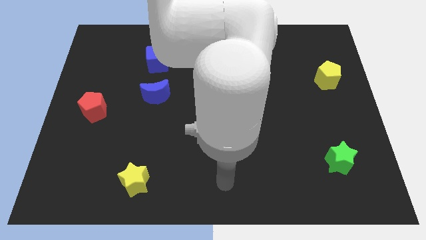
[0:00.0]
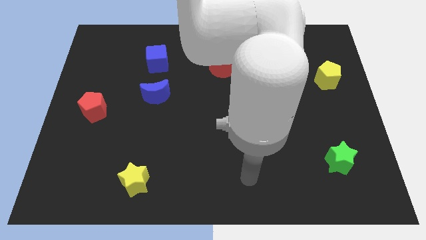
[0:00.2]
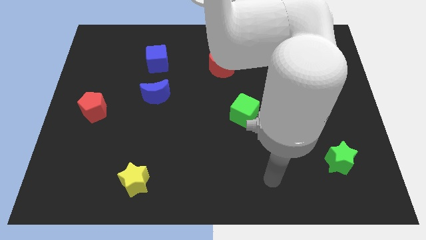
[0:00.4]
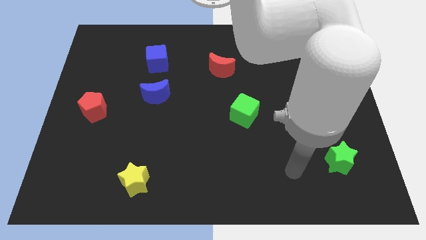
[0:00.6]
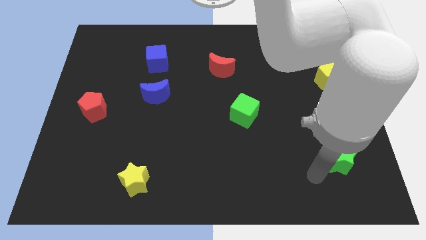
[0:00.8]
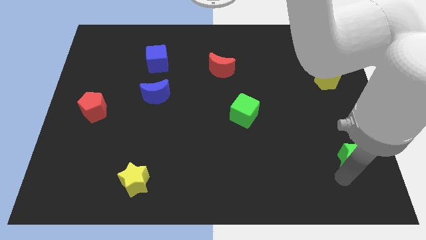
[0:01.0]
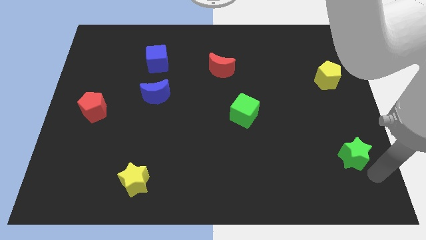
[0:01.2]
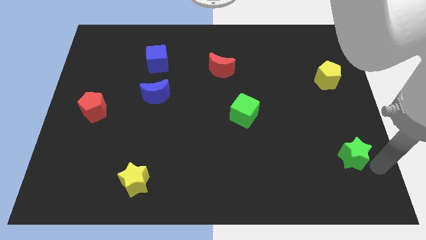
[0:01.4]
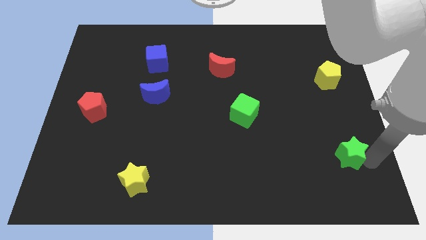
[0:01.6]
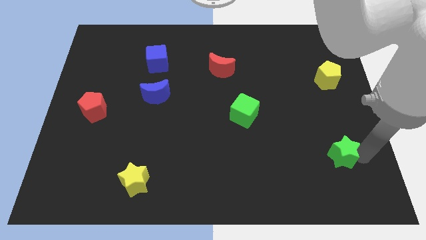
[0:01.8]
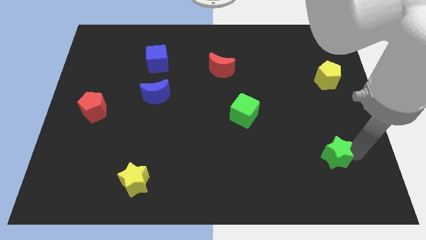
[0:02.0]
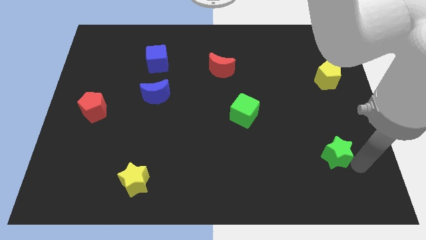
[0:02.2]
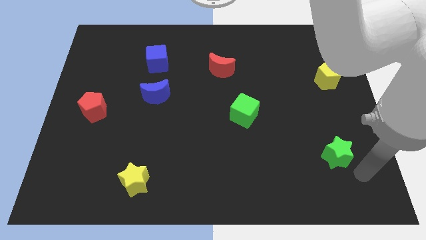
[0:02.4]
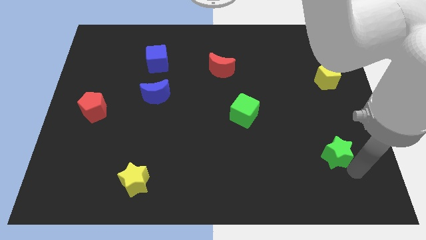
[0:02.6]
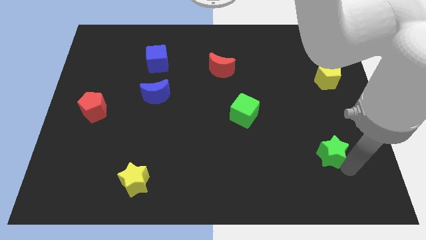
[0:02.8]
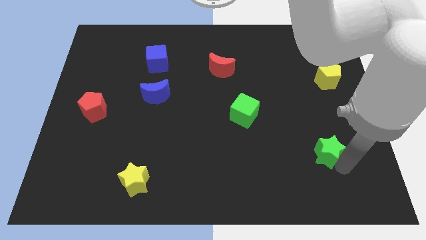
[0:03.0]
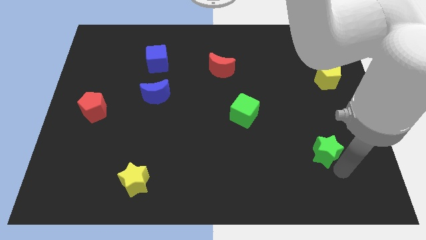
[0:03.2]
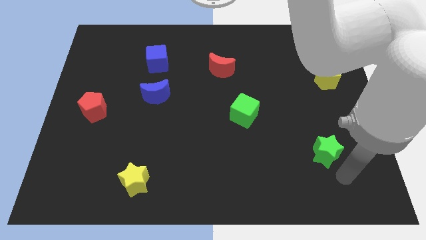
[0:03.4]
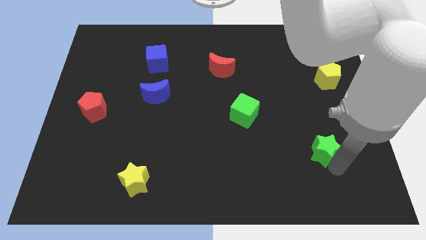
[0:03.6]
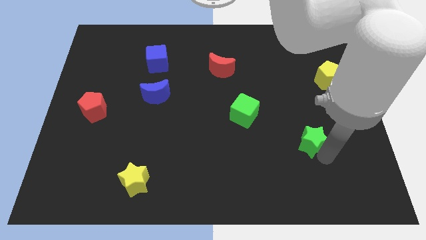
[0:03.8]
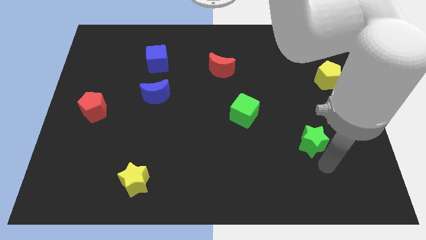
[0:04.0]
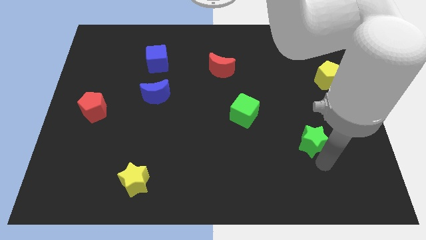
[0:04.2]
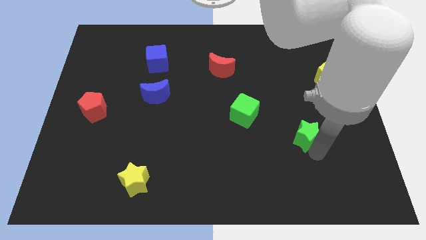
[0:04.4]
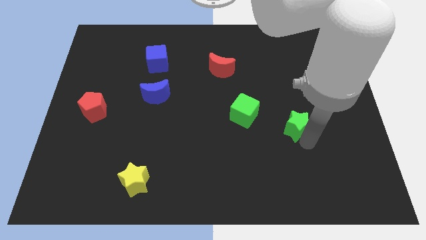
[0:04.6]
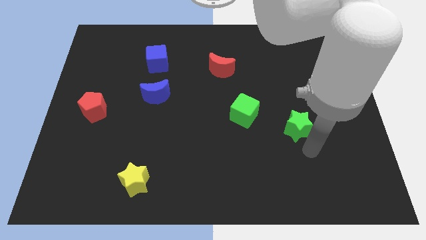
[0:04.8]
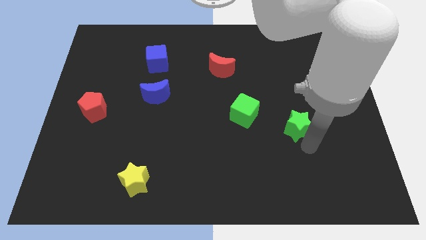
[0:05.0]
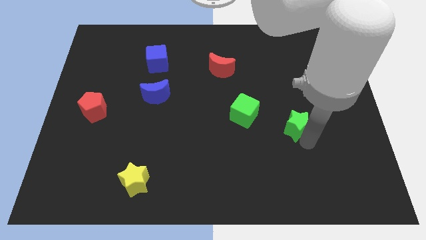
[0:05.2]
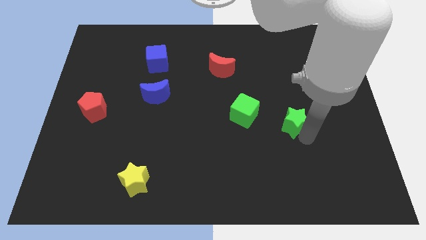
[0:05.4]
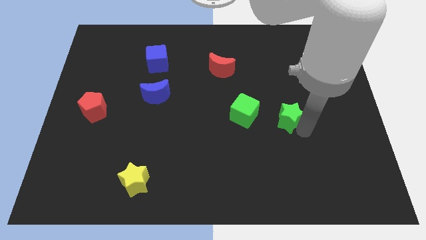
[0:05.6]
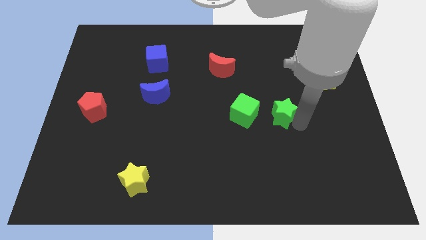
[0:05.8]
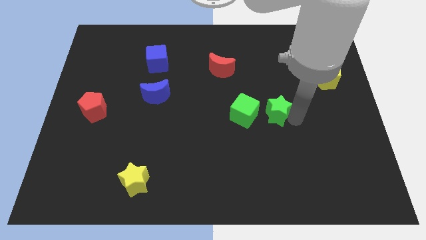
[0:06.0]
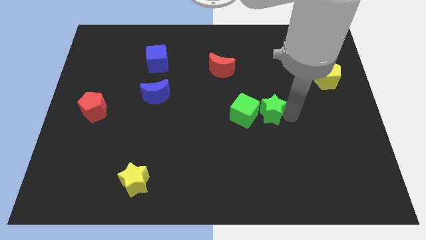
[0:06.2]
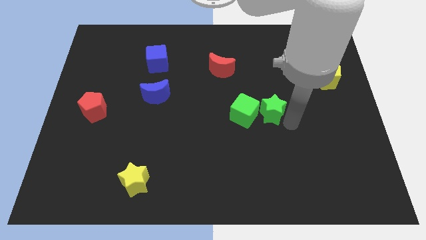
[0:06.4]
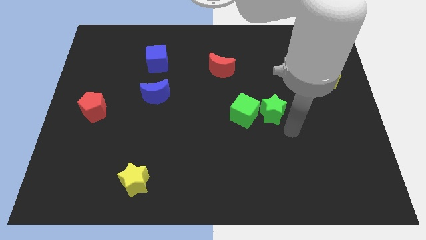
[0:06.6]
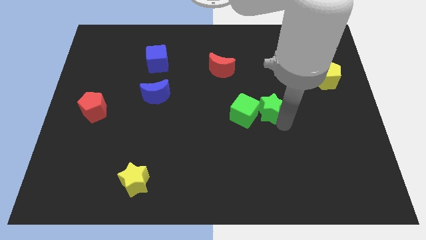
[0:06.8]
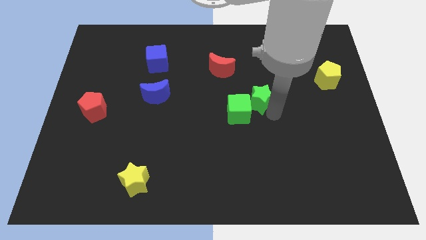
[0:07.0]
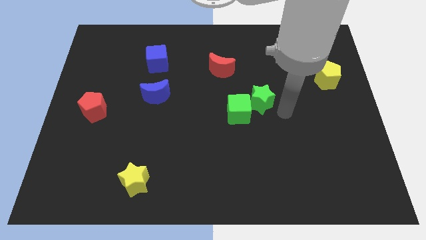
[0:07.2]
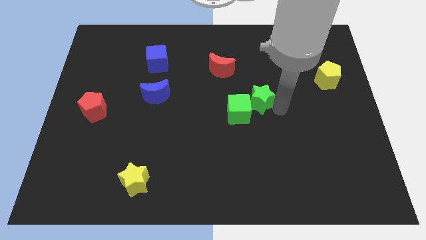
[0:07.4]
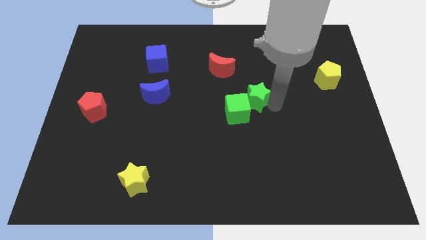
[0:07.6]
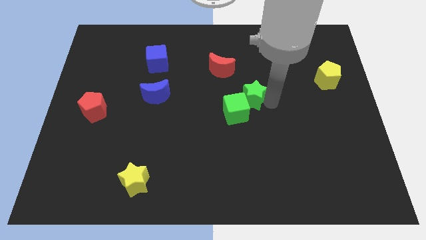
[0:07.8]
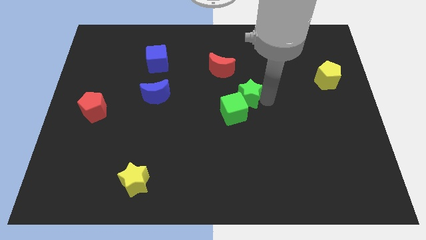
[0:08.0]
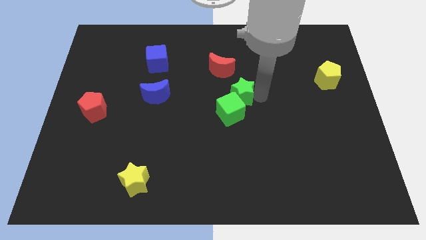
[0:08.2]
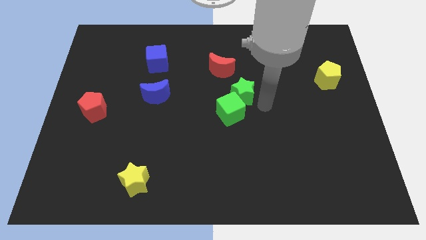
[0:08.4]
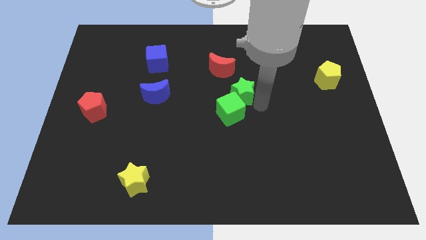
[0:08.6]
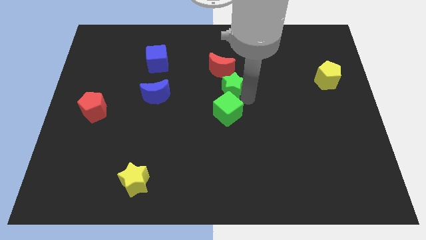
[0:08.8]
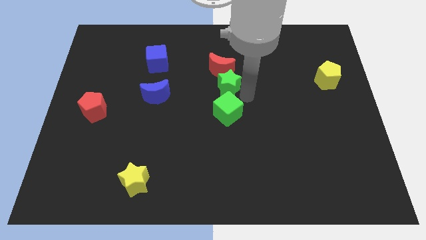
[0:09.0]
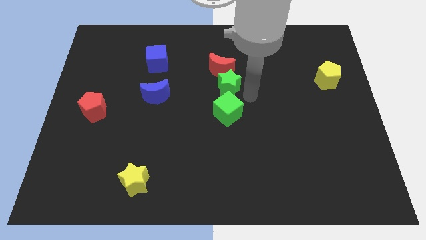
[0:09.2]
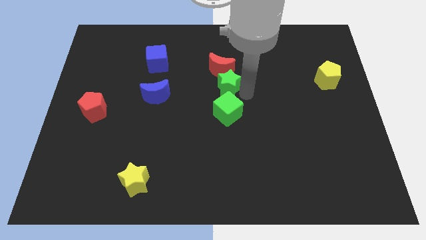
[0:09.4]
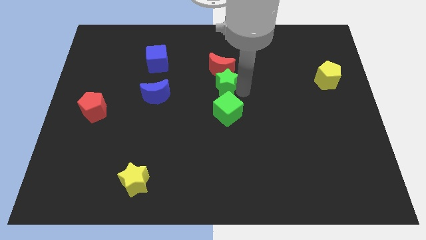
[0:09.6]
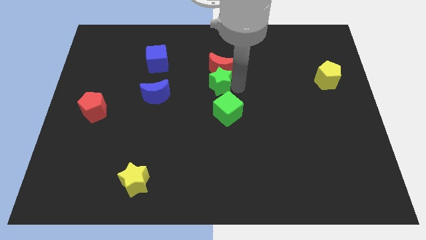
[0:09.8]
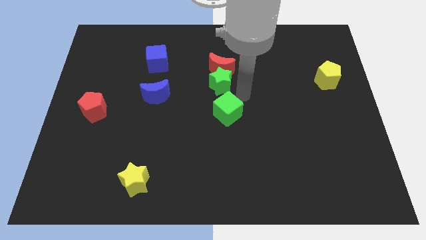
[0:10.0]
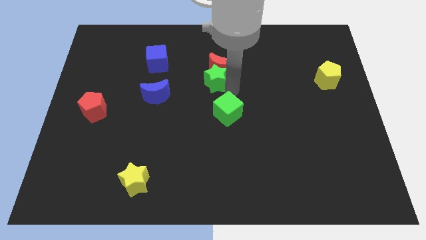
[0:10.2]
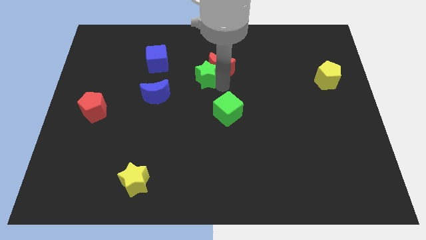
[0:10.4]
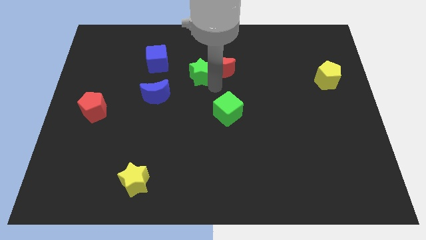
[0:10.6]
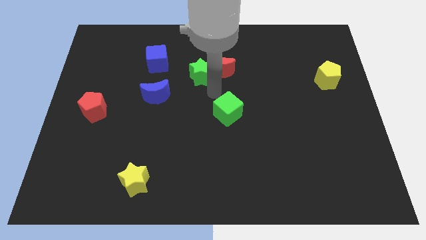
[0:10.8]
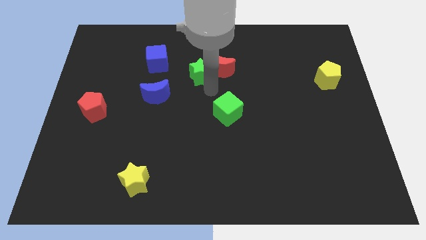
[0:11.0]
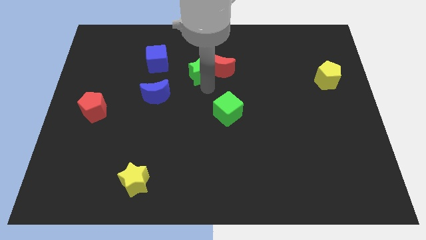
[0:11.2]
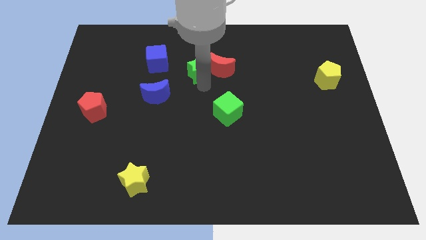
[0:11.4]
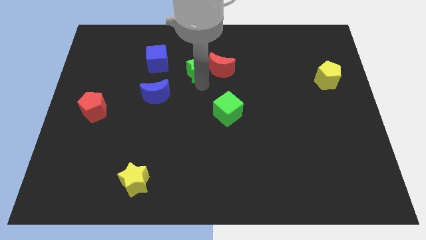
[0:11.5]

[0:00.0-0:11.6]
move the green star to the top left of the red moon

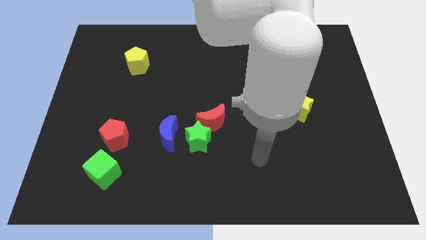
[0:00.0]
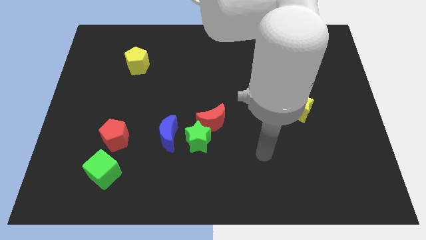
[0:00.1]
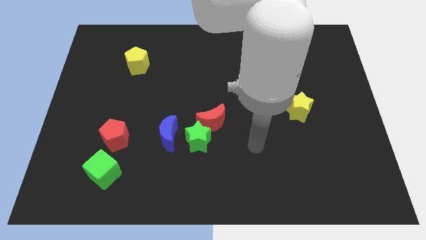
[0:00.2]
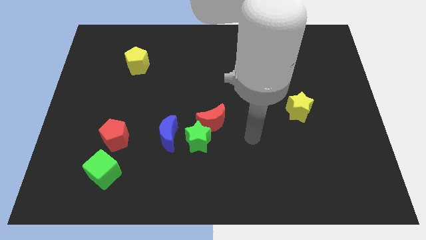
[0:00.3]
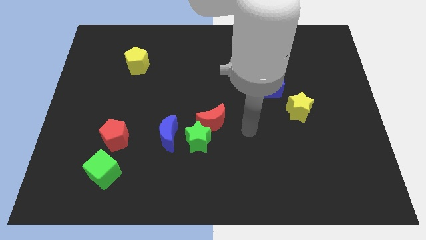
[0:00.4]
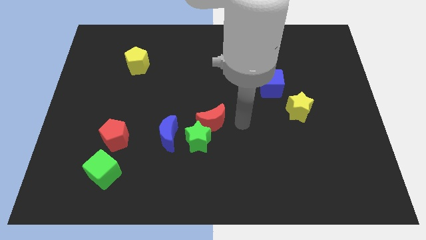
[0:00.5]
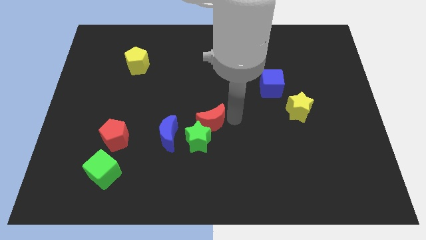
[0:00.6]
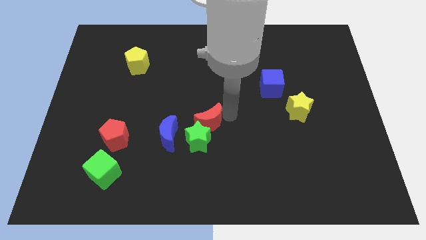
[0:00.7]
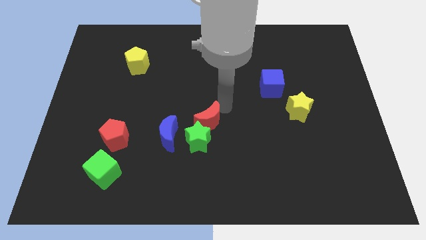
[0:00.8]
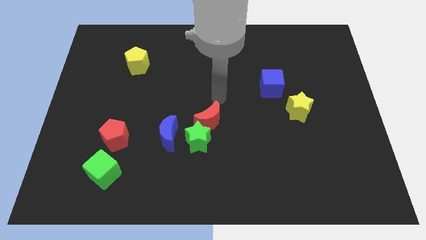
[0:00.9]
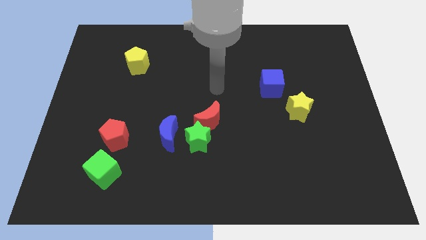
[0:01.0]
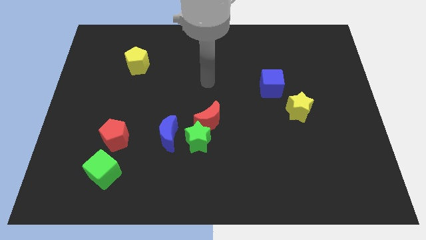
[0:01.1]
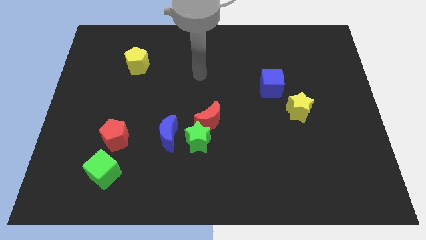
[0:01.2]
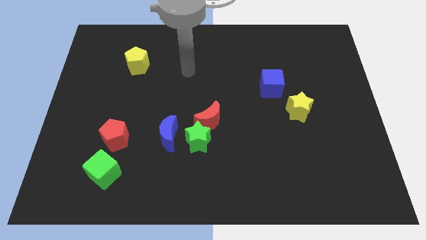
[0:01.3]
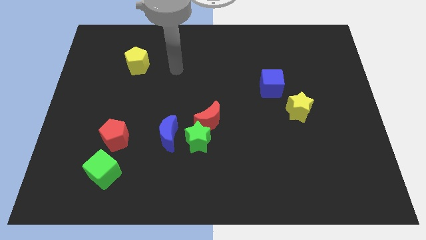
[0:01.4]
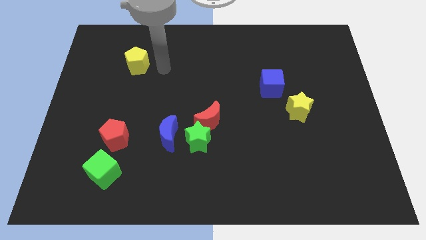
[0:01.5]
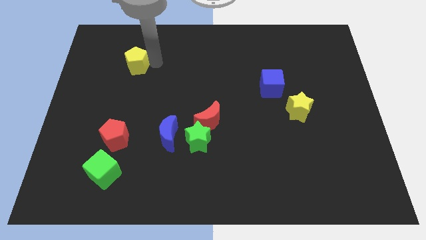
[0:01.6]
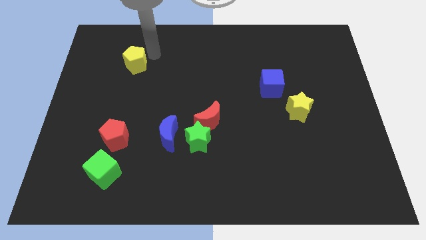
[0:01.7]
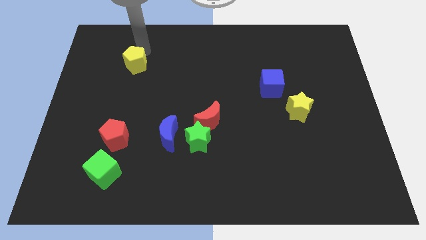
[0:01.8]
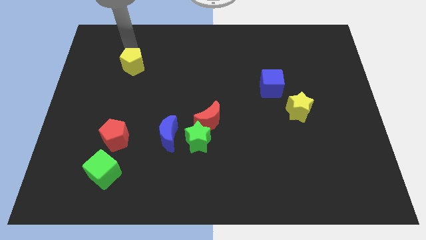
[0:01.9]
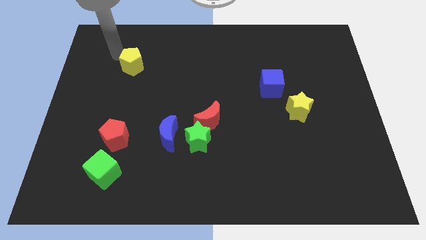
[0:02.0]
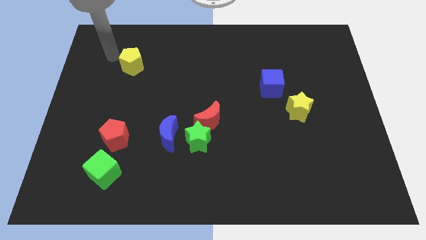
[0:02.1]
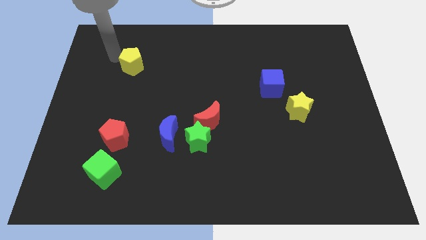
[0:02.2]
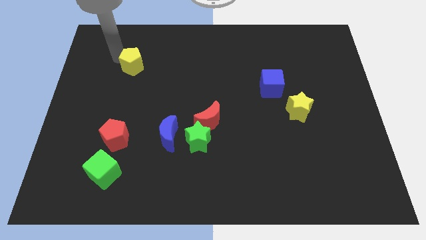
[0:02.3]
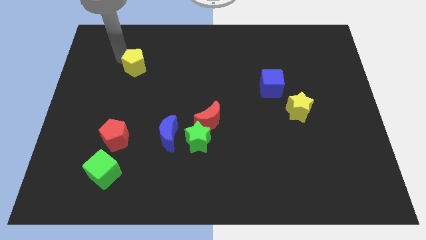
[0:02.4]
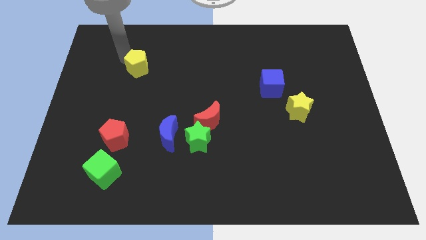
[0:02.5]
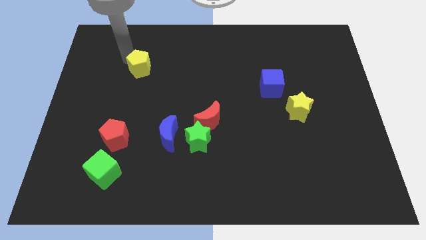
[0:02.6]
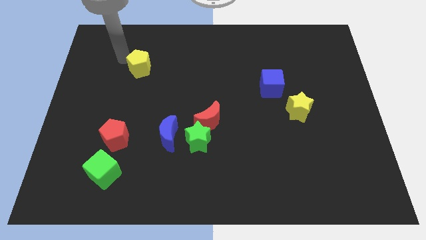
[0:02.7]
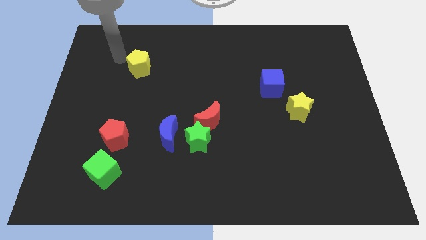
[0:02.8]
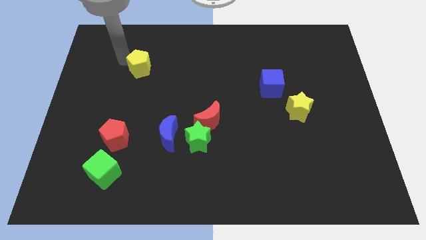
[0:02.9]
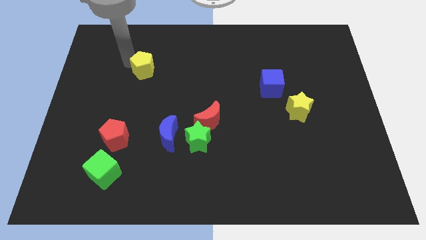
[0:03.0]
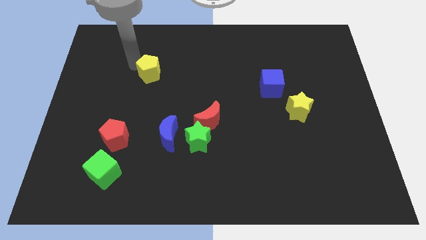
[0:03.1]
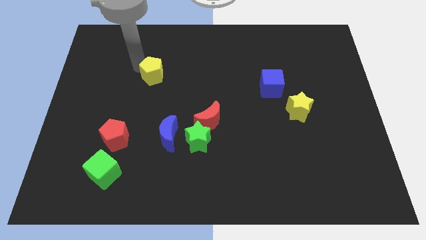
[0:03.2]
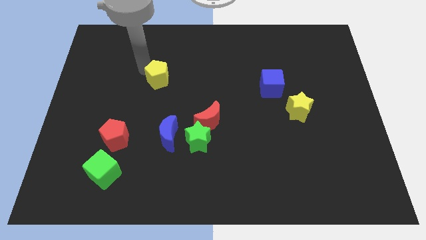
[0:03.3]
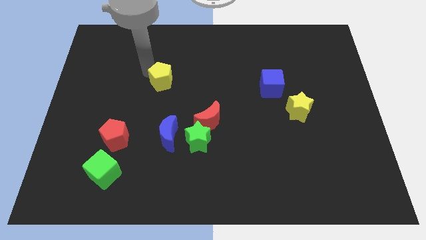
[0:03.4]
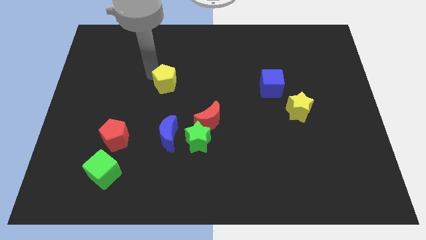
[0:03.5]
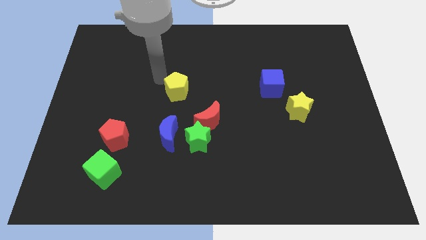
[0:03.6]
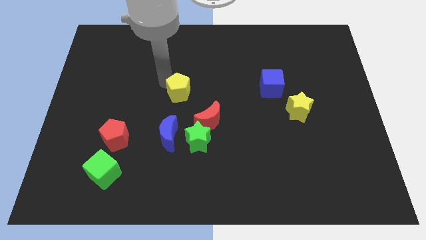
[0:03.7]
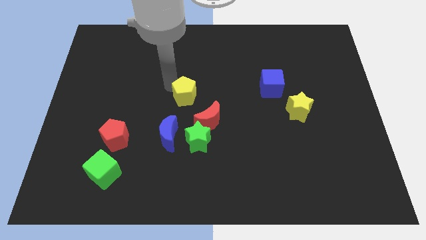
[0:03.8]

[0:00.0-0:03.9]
move the yellow pentagon above the green star
